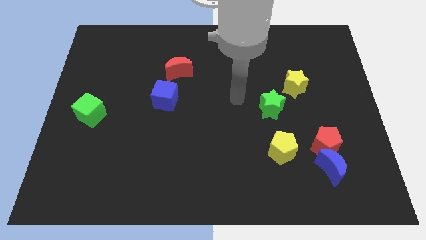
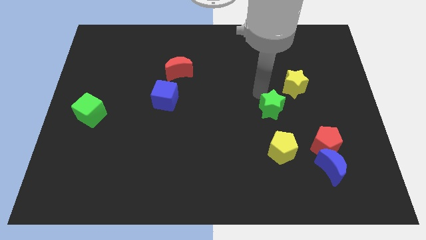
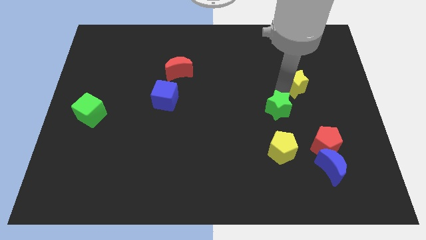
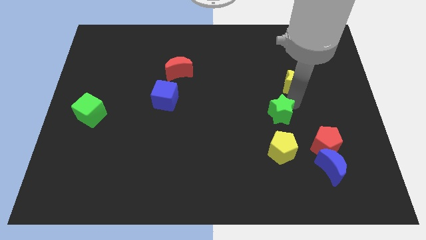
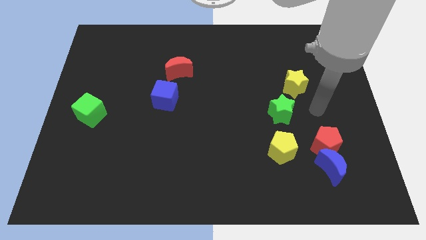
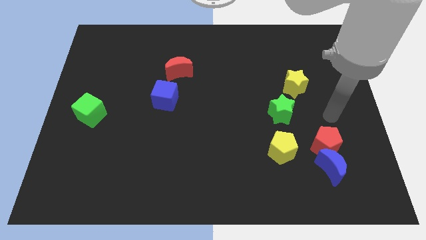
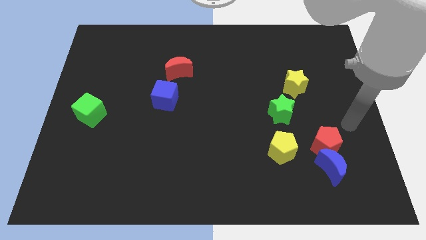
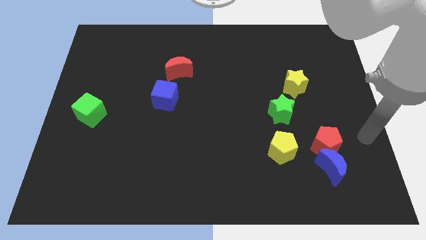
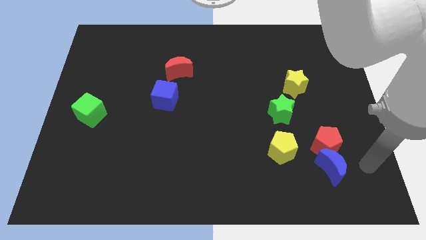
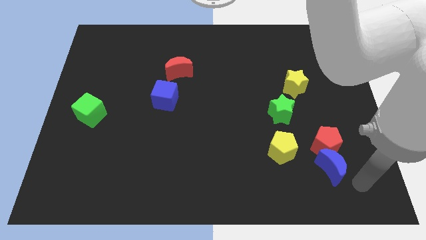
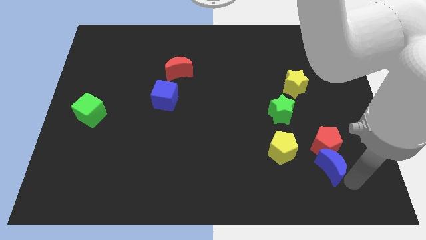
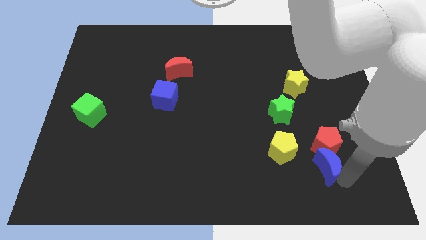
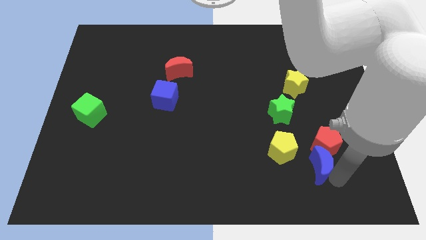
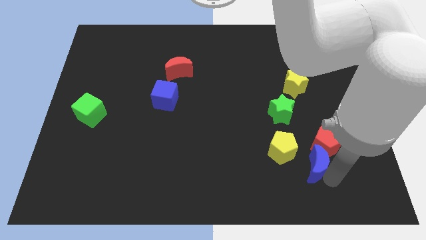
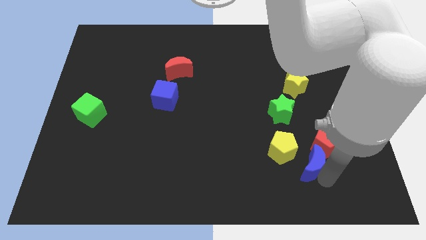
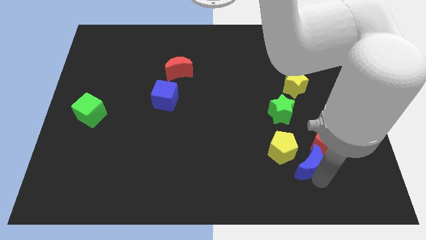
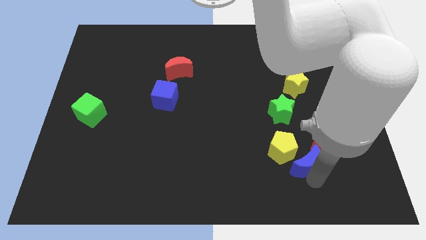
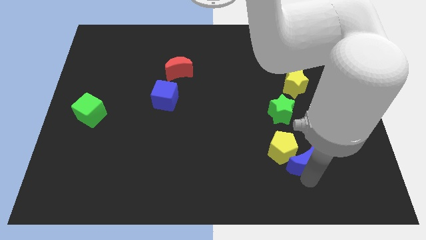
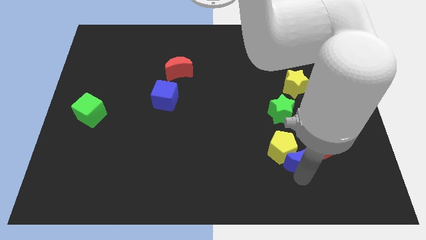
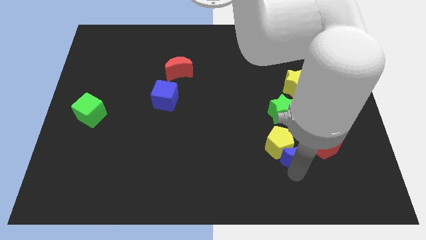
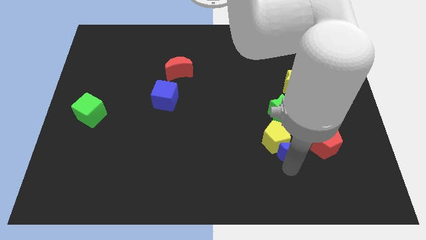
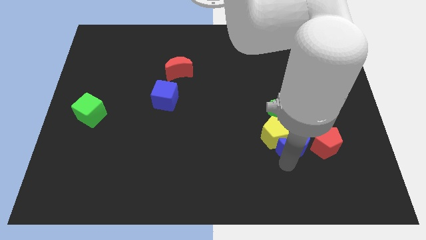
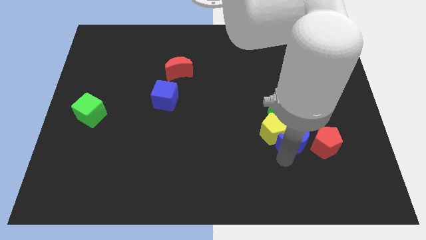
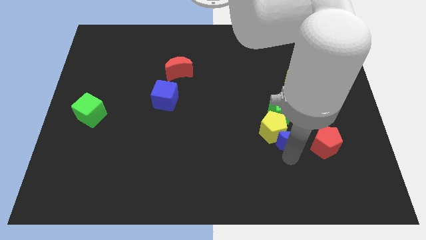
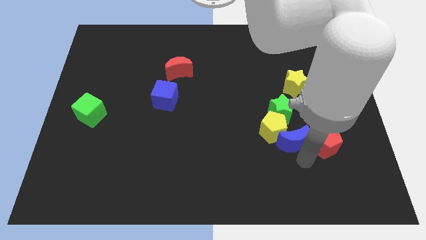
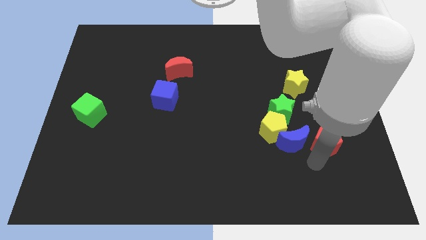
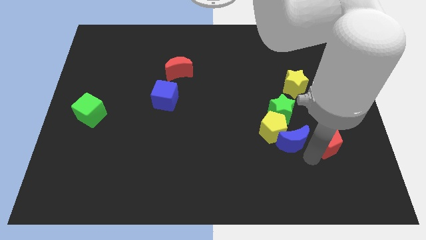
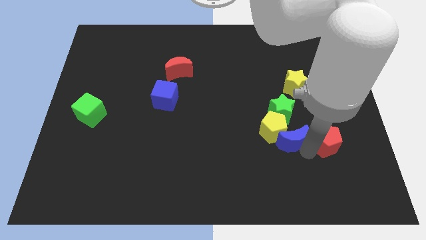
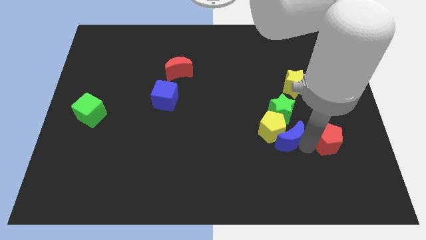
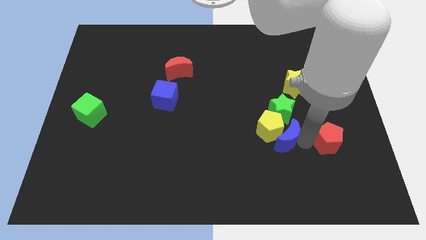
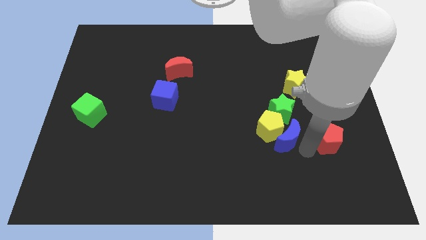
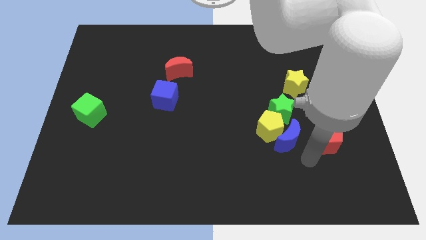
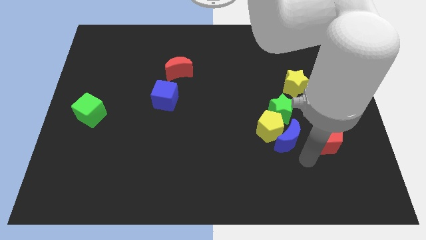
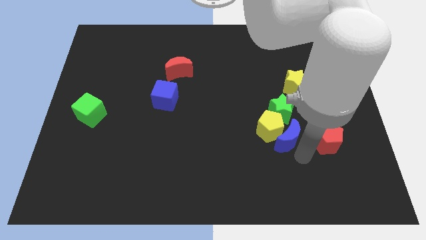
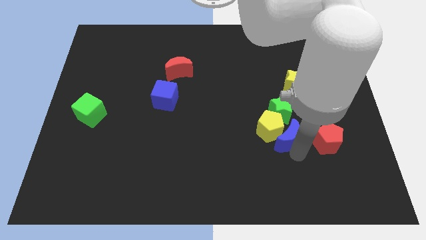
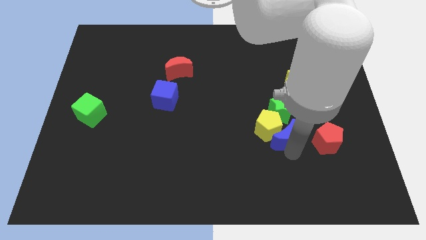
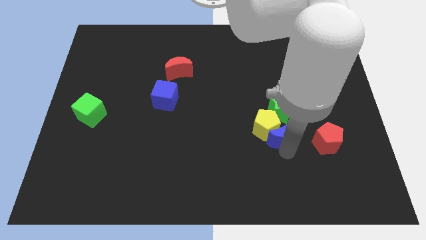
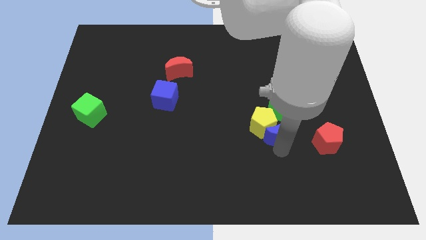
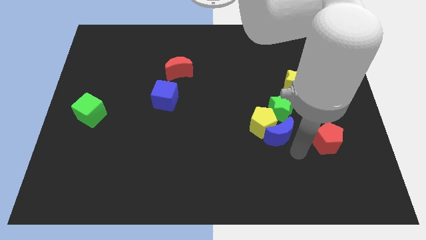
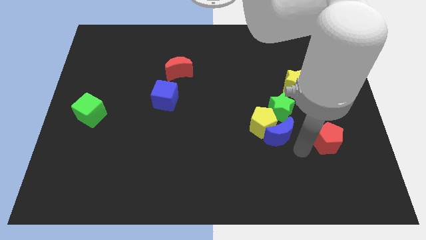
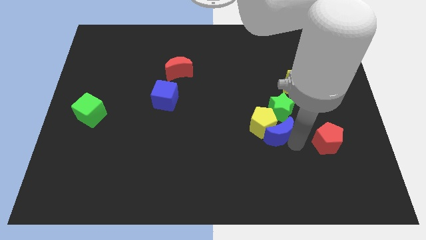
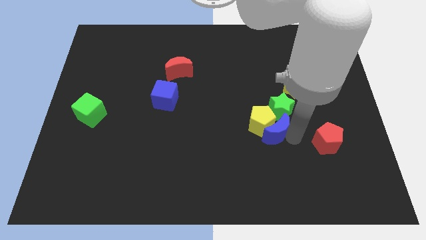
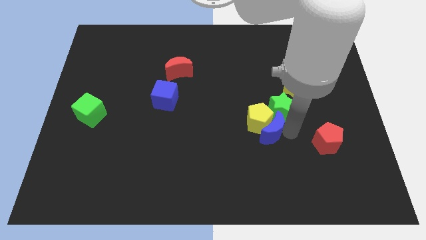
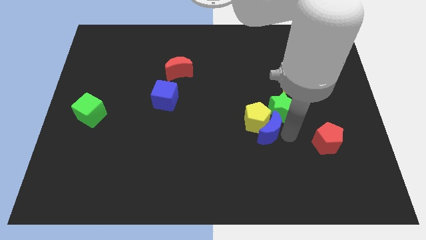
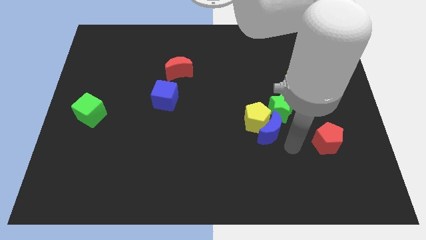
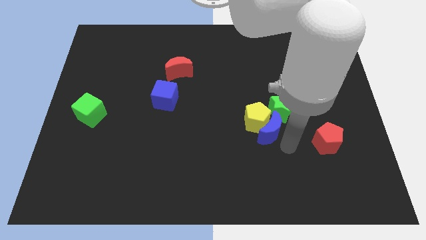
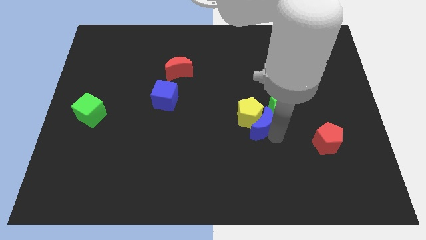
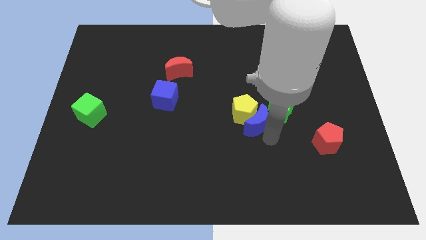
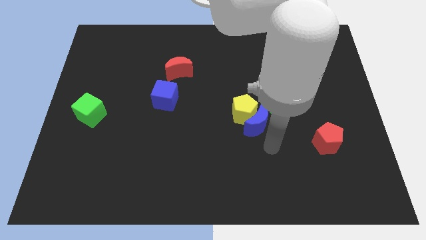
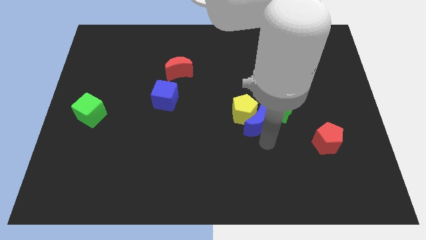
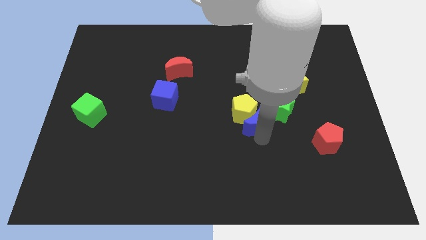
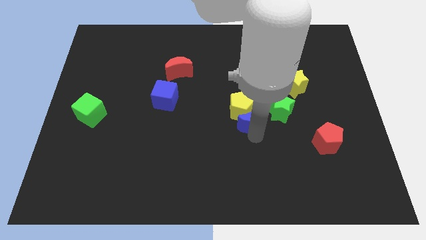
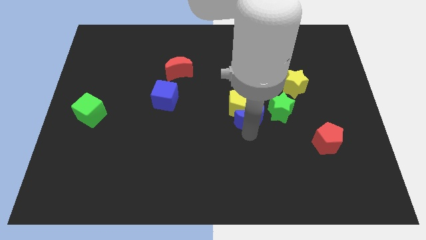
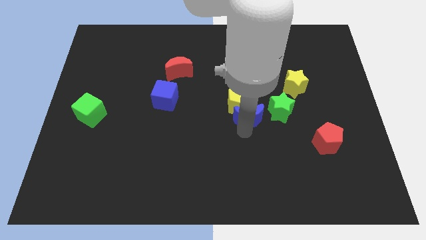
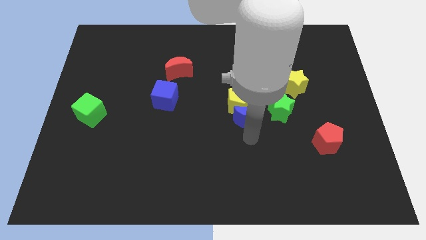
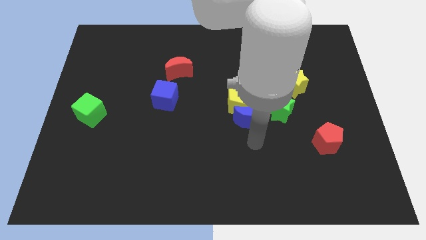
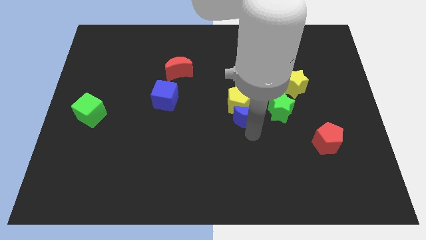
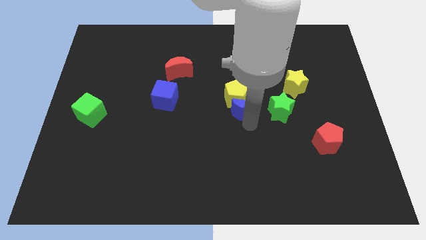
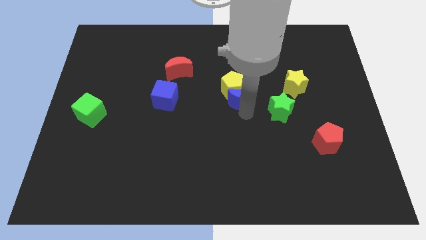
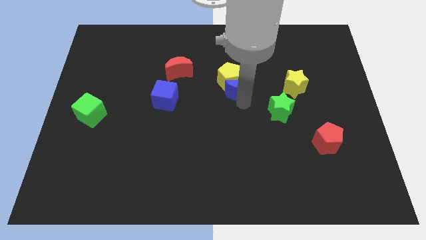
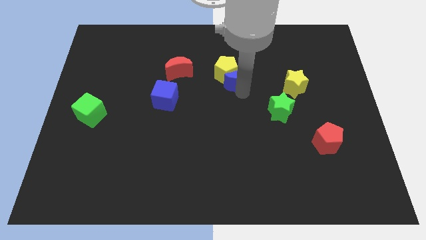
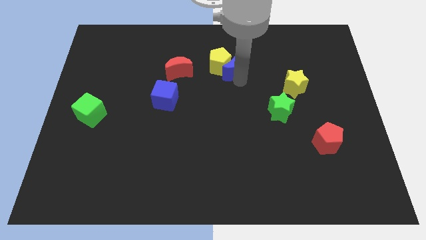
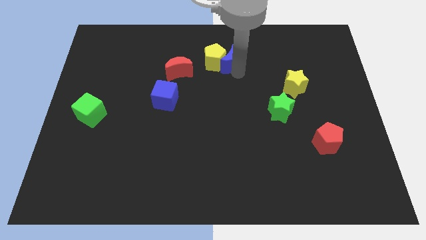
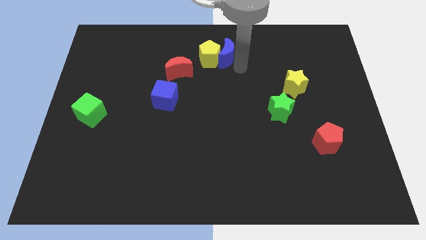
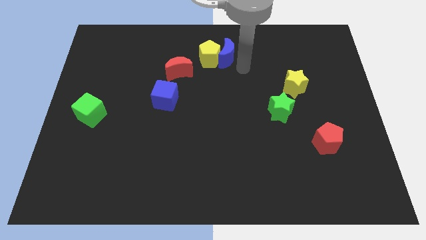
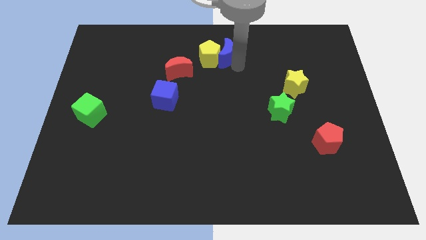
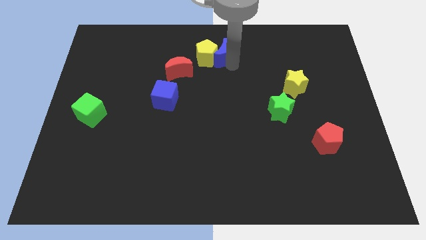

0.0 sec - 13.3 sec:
put the blue moon to the top side
